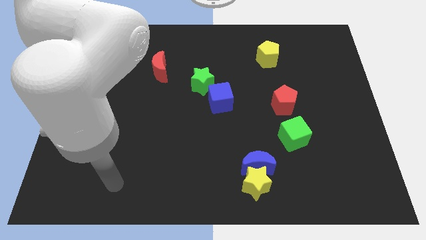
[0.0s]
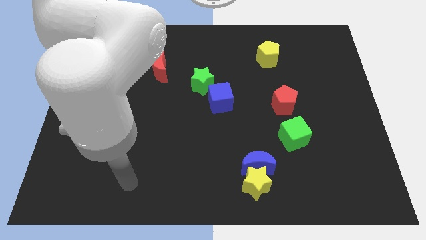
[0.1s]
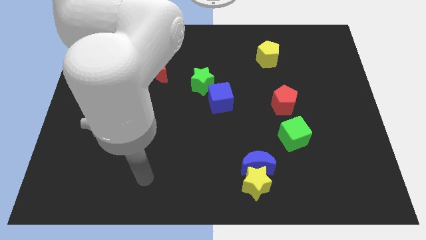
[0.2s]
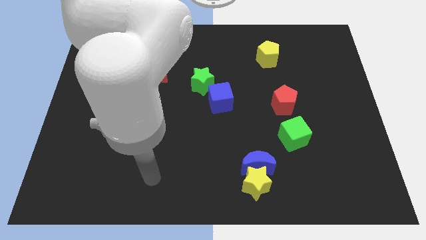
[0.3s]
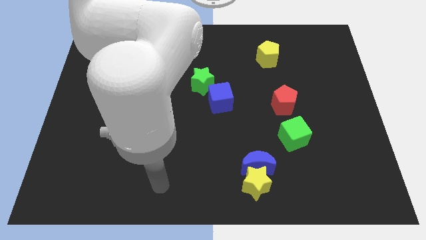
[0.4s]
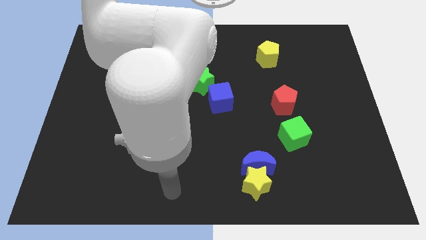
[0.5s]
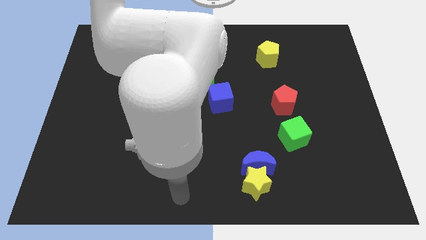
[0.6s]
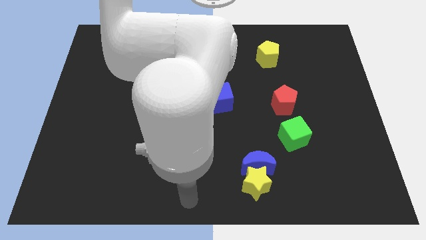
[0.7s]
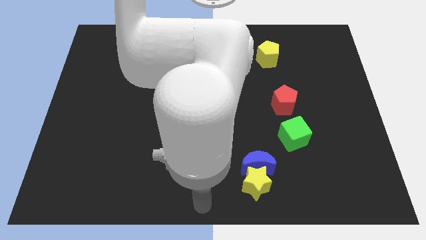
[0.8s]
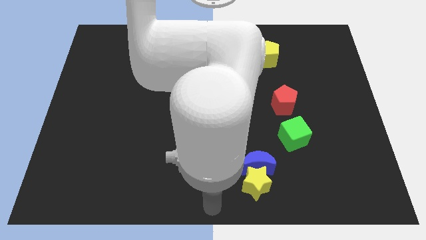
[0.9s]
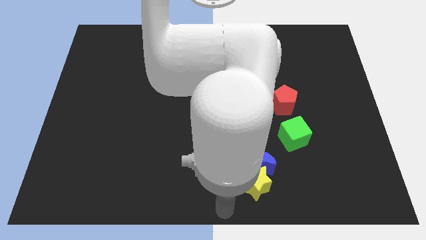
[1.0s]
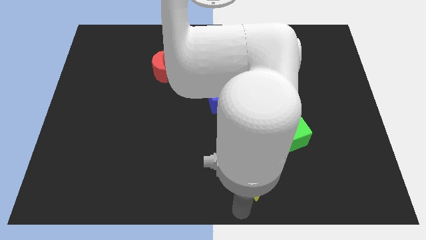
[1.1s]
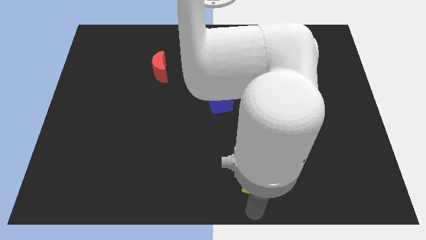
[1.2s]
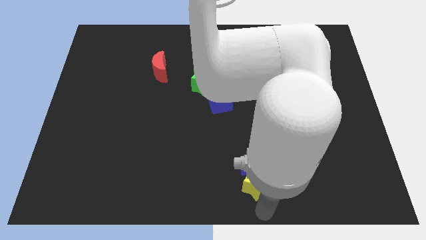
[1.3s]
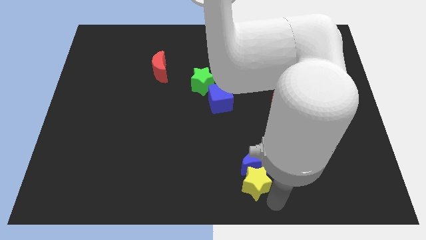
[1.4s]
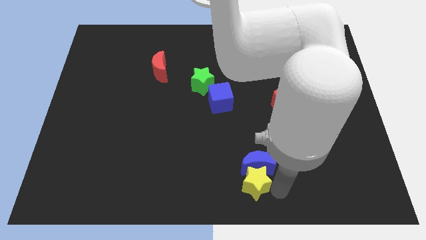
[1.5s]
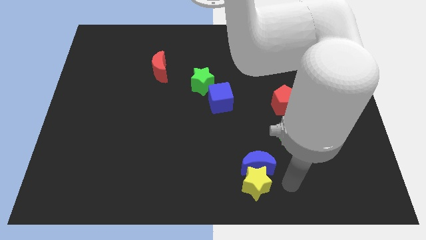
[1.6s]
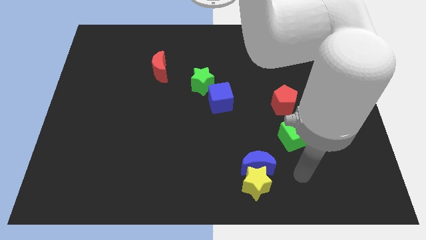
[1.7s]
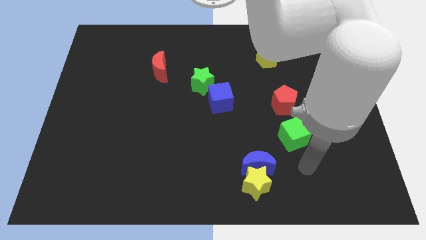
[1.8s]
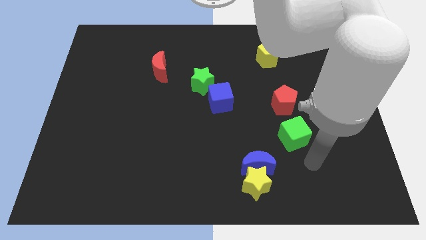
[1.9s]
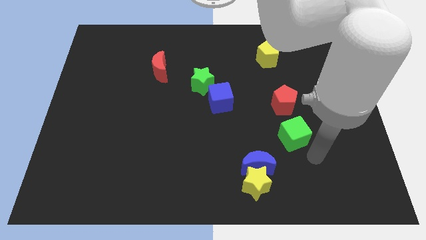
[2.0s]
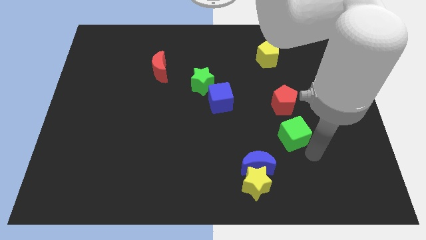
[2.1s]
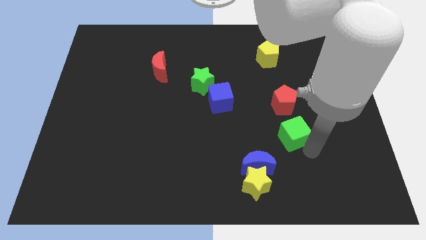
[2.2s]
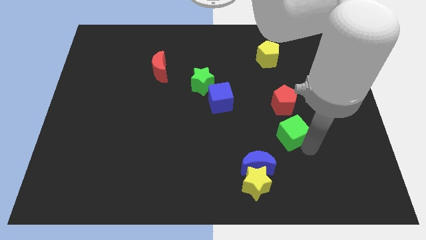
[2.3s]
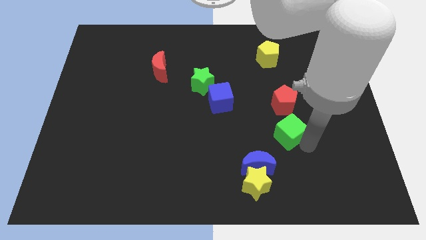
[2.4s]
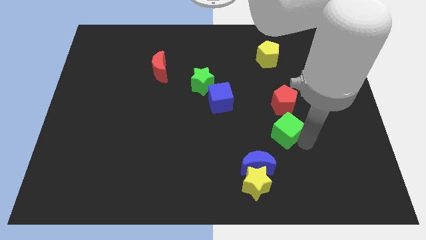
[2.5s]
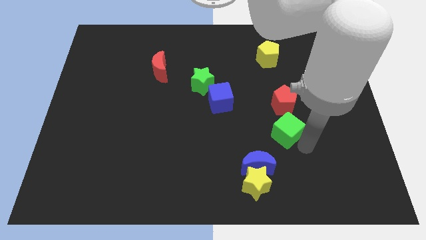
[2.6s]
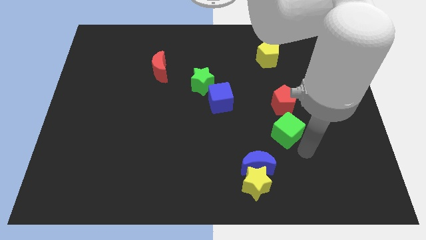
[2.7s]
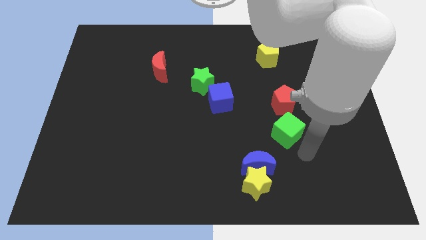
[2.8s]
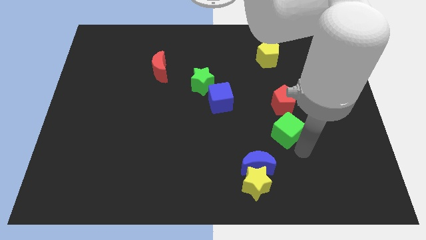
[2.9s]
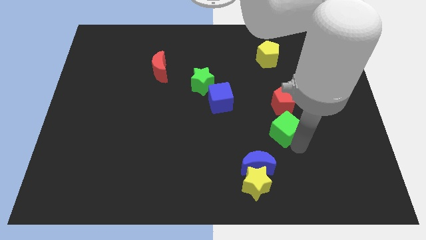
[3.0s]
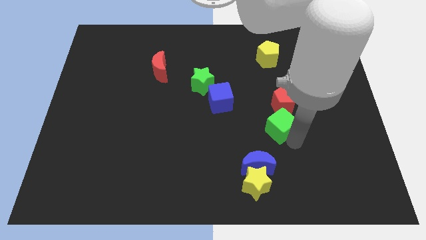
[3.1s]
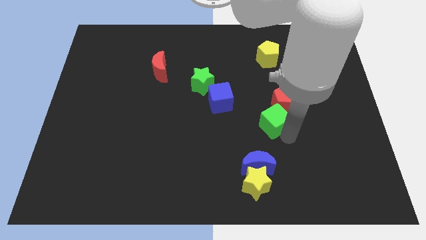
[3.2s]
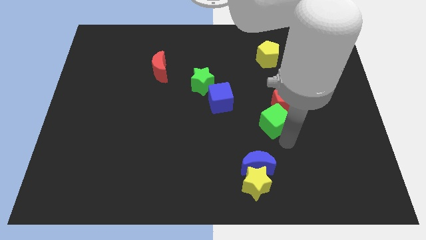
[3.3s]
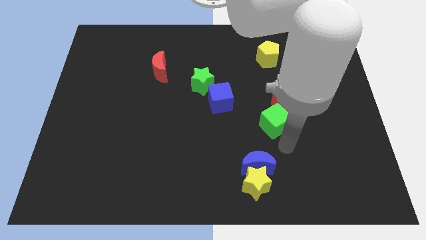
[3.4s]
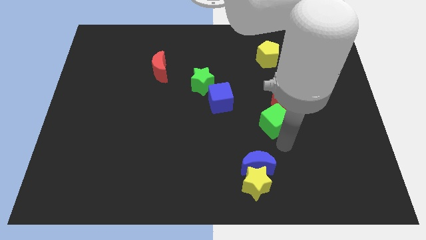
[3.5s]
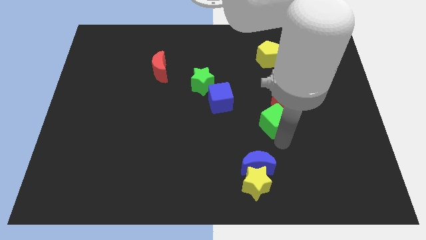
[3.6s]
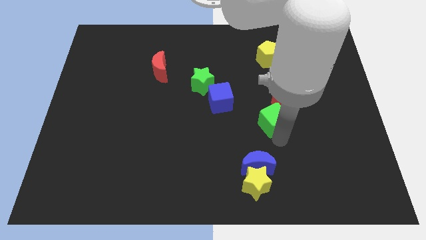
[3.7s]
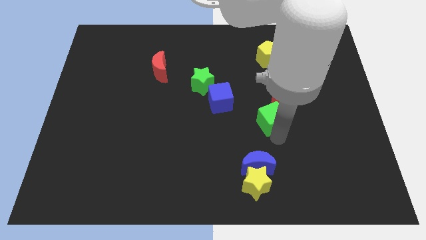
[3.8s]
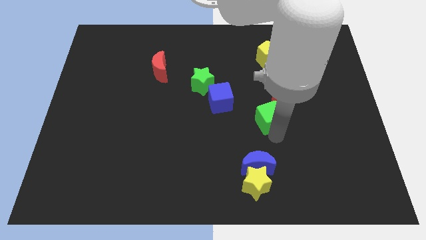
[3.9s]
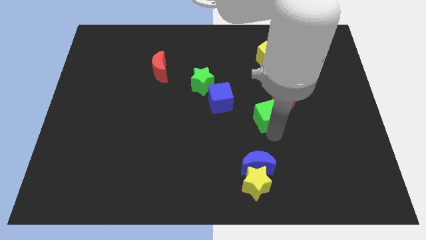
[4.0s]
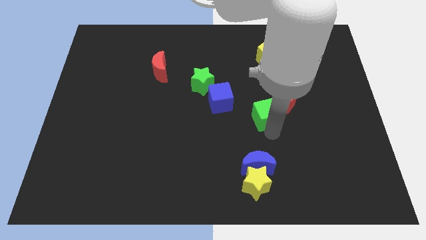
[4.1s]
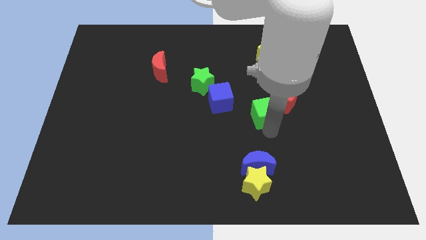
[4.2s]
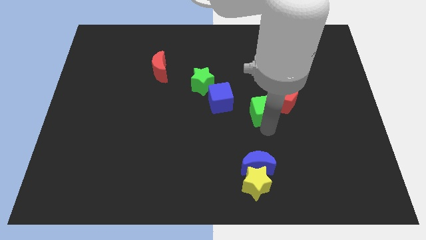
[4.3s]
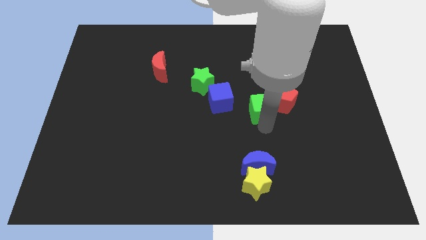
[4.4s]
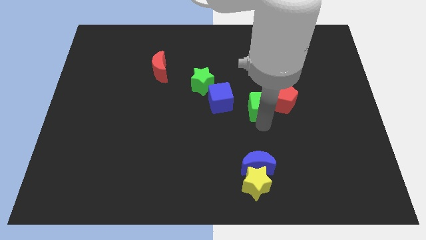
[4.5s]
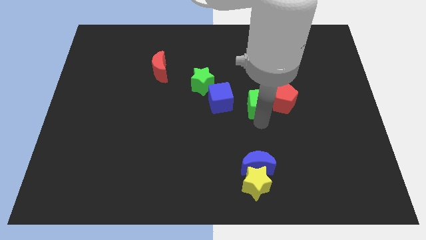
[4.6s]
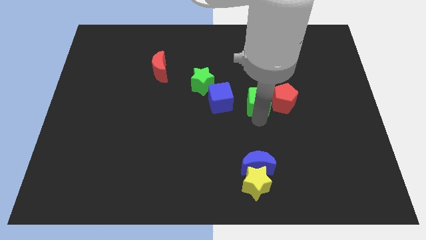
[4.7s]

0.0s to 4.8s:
push the green cube up a little

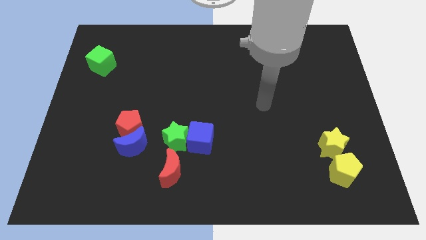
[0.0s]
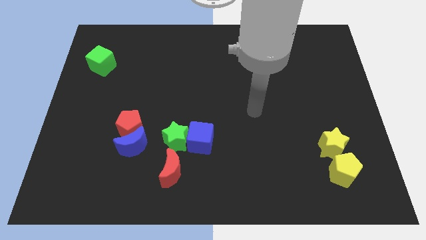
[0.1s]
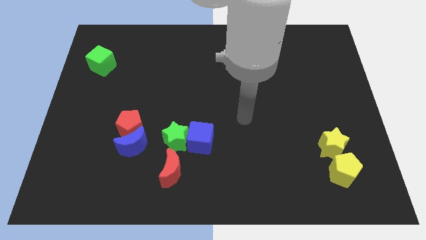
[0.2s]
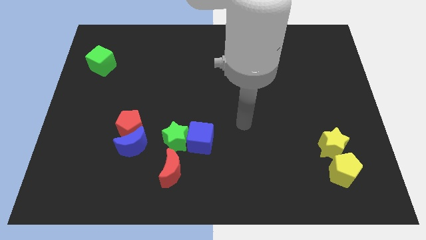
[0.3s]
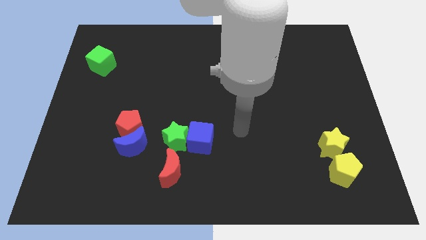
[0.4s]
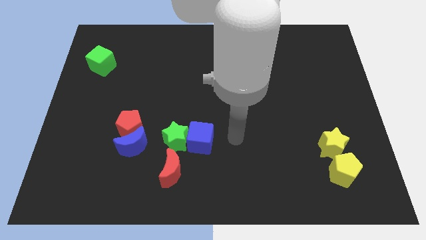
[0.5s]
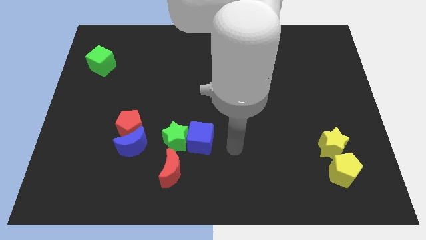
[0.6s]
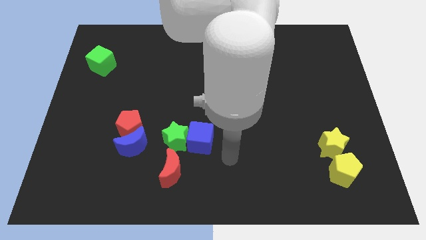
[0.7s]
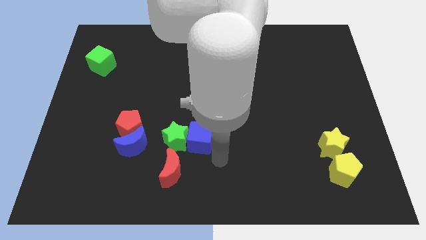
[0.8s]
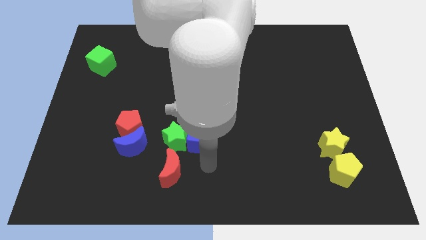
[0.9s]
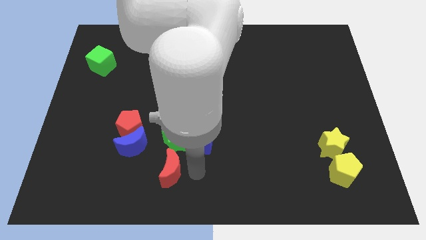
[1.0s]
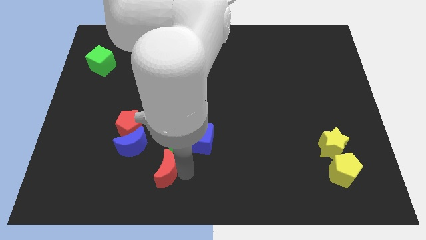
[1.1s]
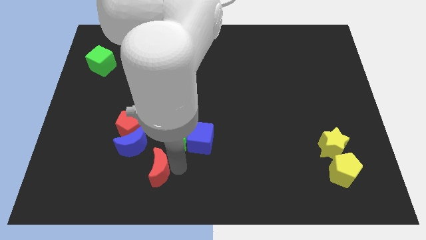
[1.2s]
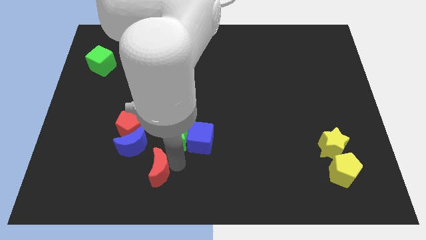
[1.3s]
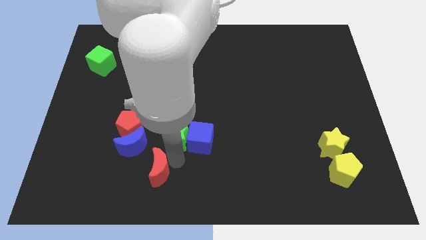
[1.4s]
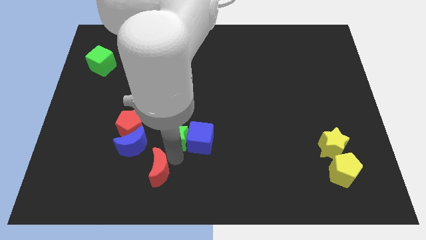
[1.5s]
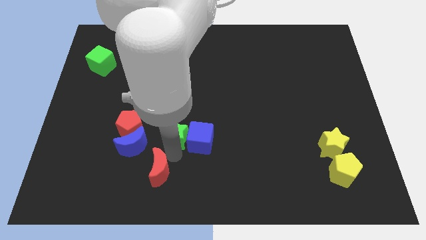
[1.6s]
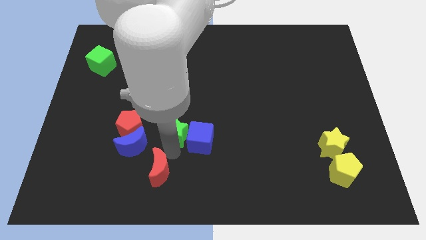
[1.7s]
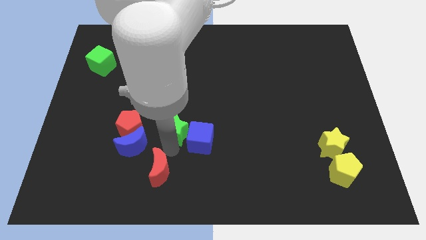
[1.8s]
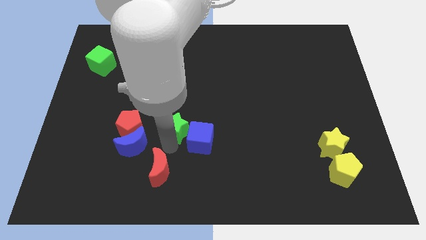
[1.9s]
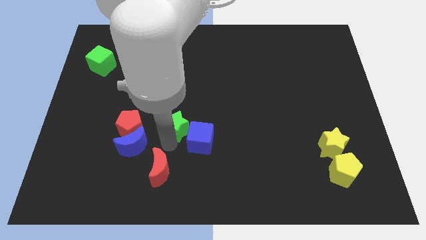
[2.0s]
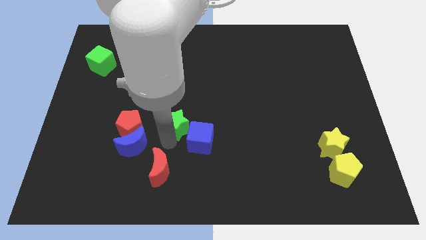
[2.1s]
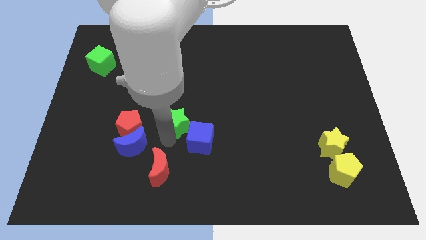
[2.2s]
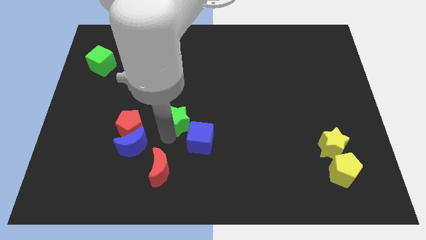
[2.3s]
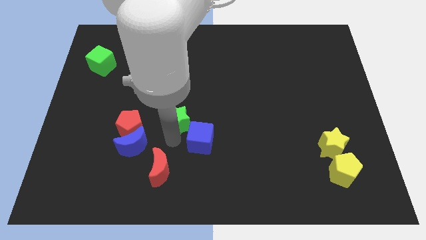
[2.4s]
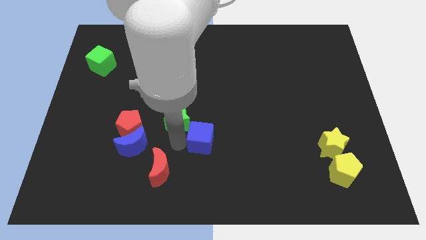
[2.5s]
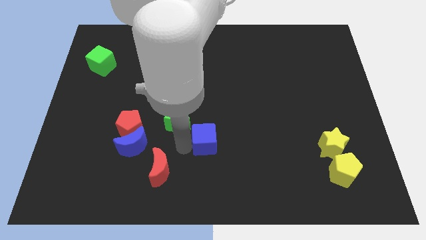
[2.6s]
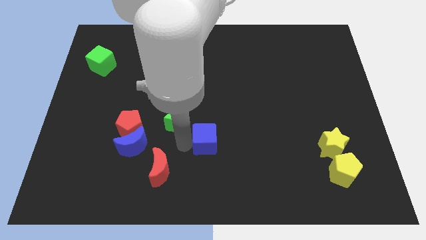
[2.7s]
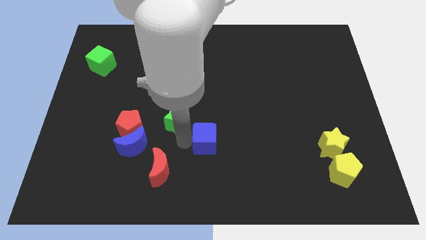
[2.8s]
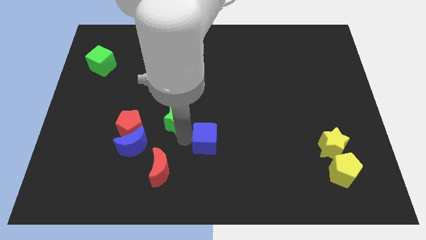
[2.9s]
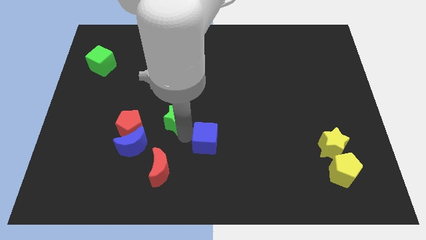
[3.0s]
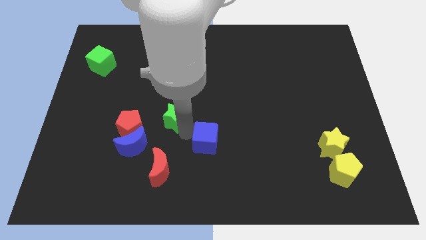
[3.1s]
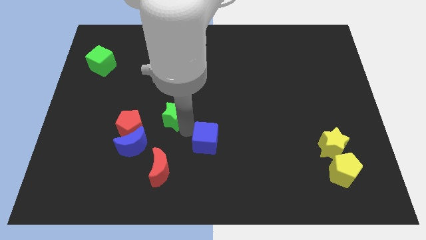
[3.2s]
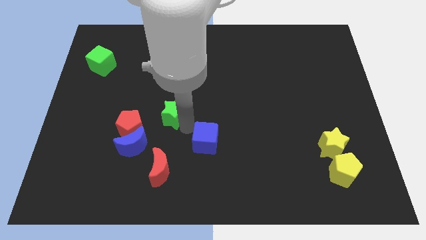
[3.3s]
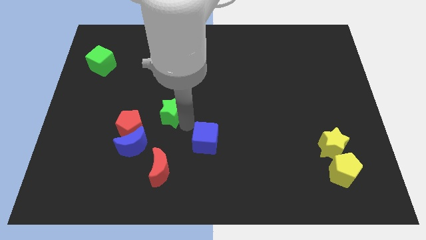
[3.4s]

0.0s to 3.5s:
push the green star a little bit upwards

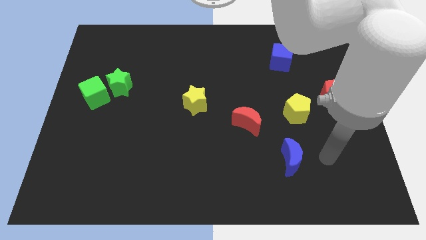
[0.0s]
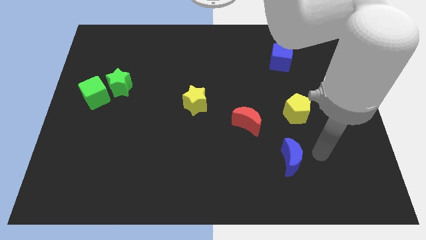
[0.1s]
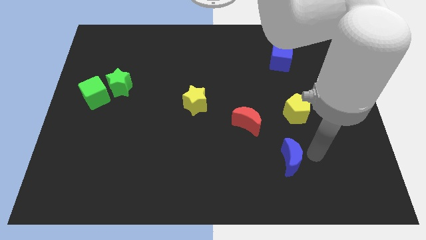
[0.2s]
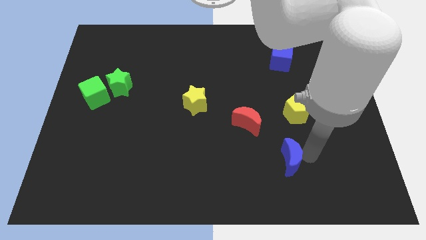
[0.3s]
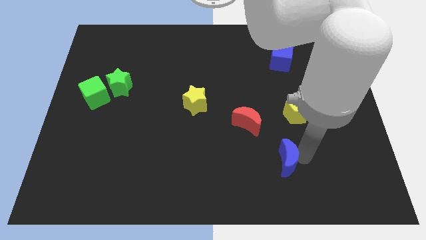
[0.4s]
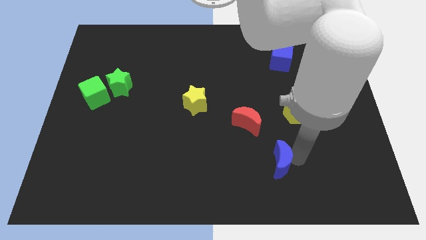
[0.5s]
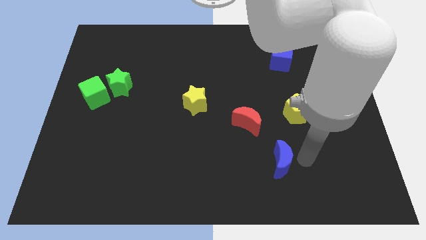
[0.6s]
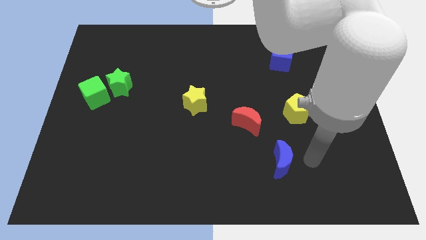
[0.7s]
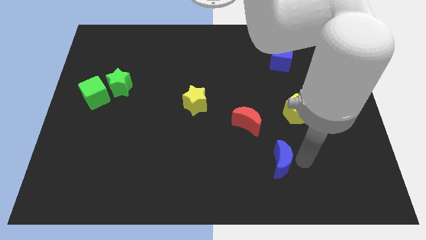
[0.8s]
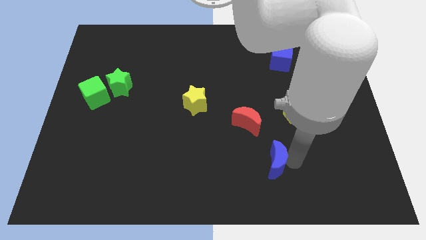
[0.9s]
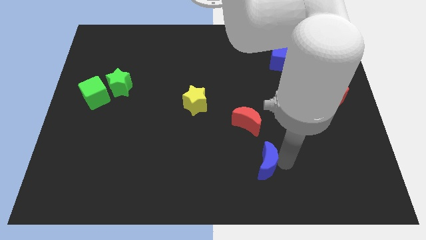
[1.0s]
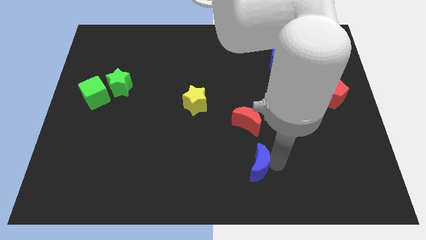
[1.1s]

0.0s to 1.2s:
move the blue moon a little bit left
